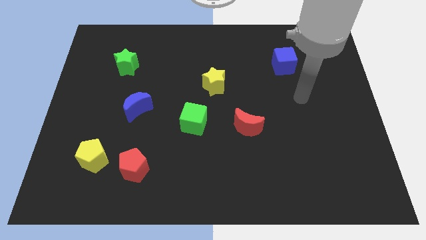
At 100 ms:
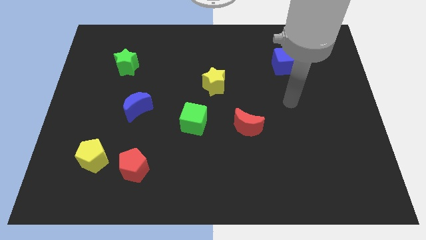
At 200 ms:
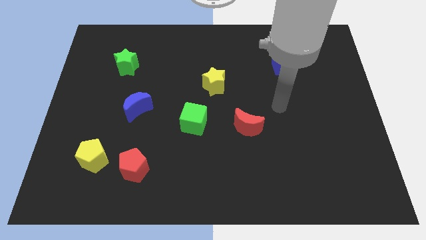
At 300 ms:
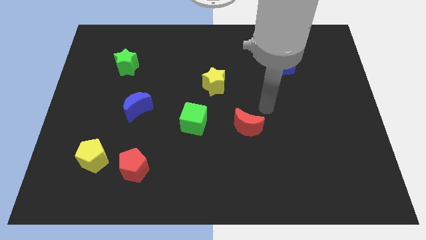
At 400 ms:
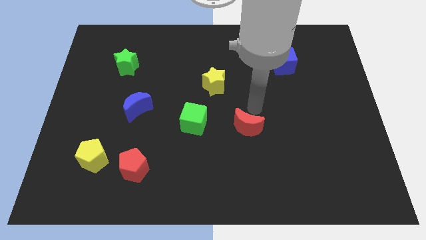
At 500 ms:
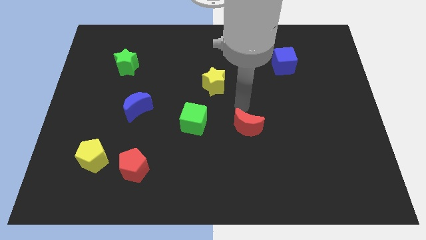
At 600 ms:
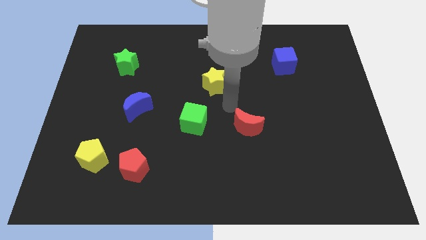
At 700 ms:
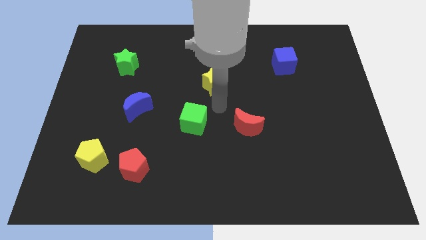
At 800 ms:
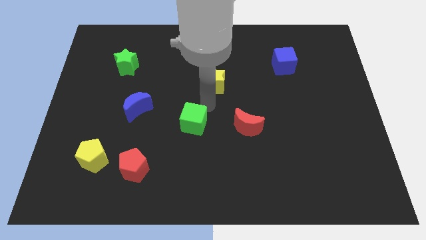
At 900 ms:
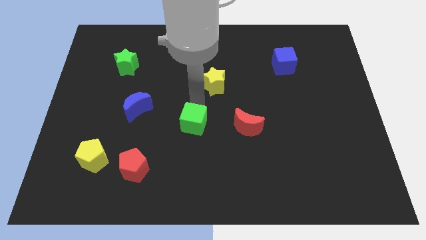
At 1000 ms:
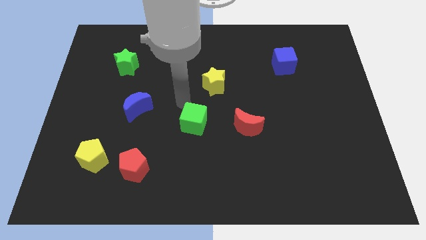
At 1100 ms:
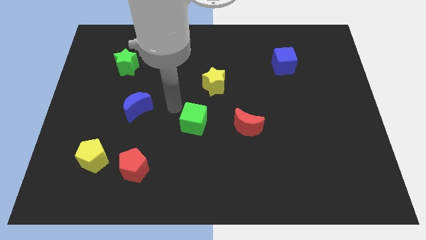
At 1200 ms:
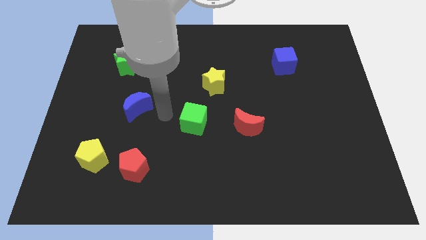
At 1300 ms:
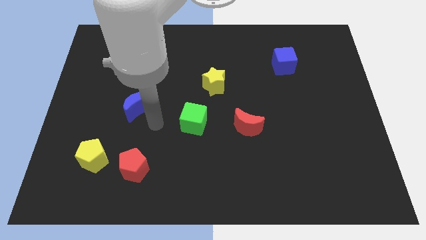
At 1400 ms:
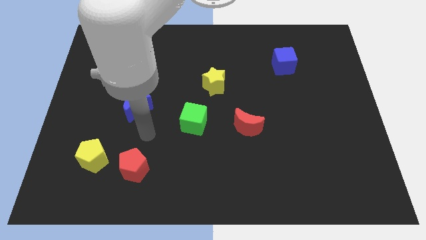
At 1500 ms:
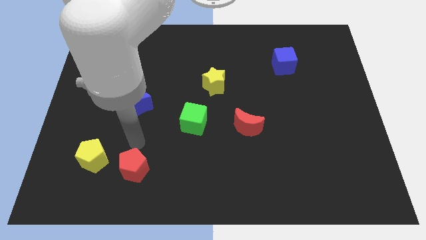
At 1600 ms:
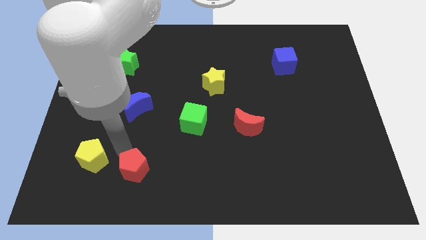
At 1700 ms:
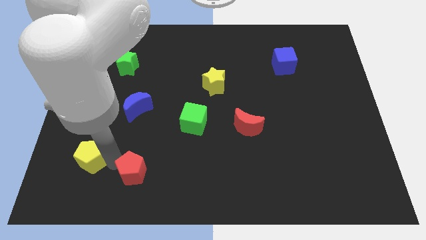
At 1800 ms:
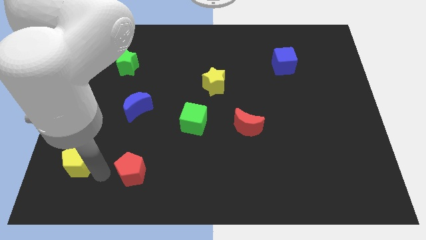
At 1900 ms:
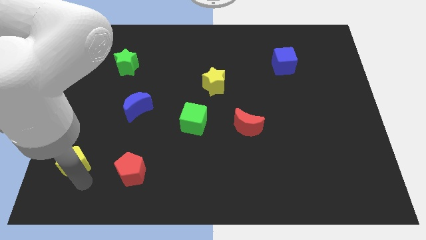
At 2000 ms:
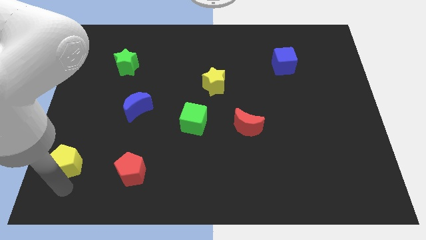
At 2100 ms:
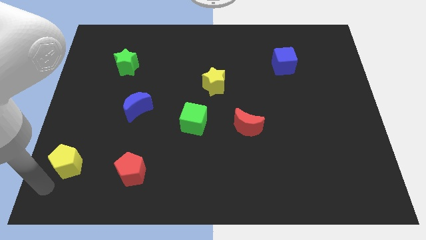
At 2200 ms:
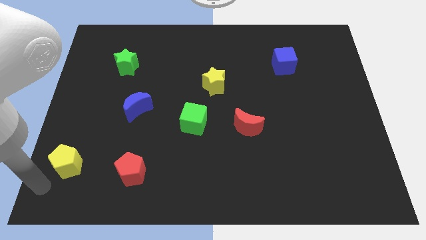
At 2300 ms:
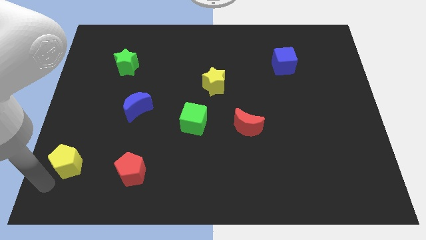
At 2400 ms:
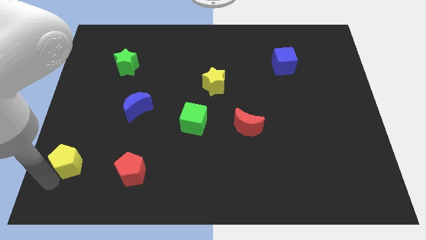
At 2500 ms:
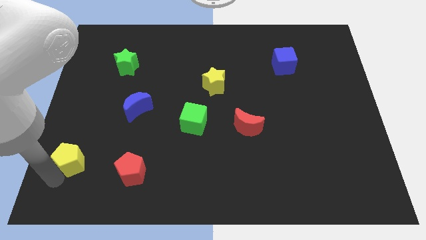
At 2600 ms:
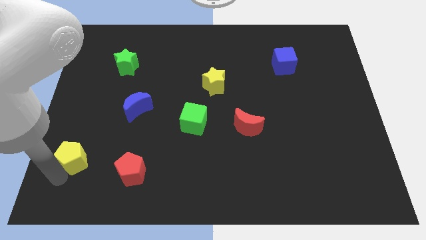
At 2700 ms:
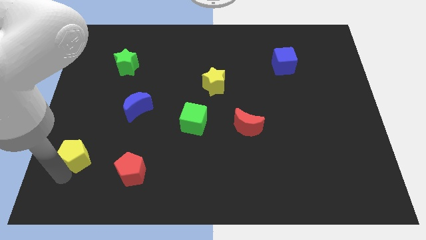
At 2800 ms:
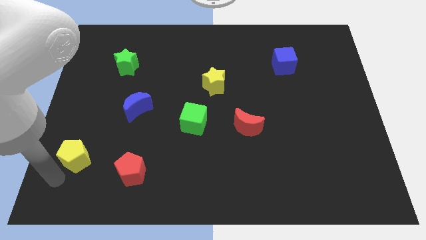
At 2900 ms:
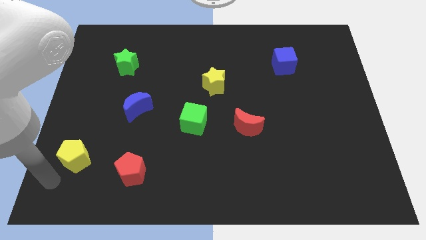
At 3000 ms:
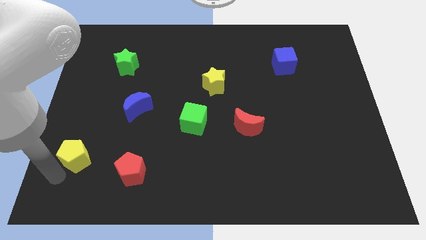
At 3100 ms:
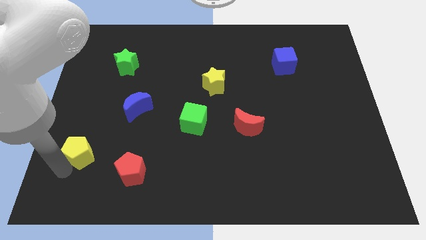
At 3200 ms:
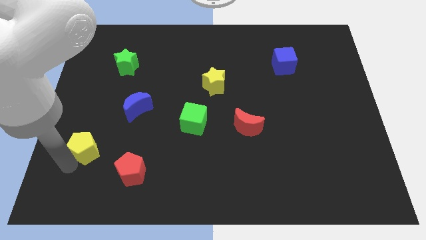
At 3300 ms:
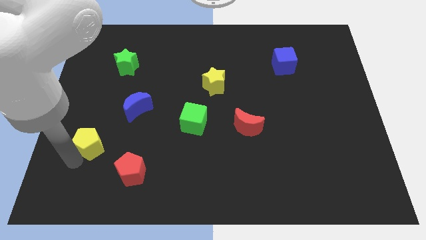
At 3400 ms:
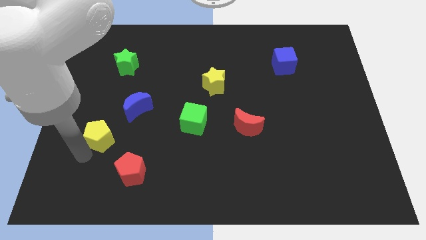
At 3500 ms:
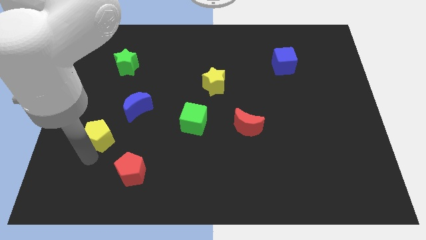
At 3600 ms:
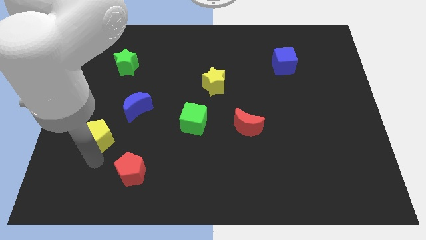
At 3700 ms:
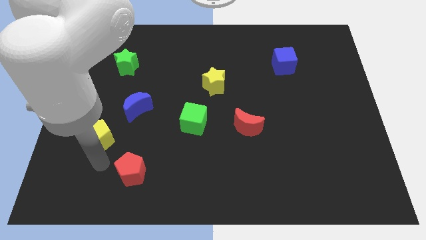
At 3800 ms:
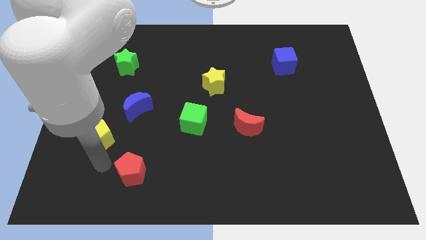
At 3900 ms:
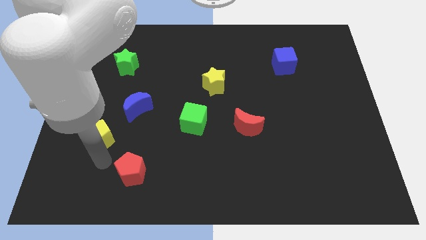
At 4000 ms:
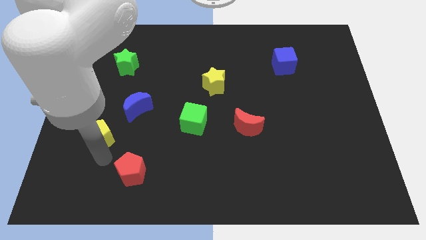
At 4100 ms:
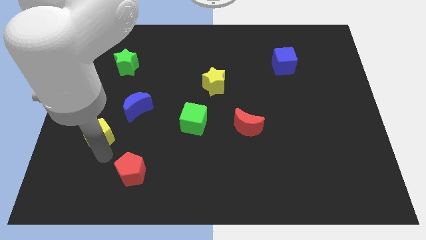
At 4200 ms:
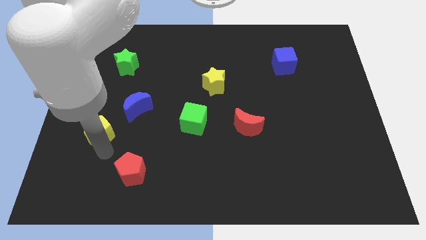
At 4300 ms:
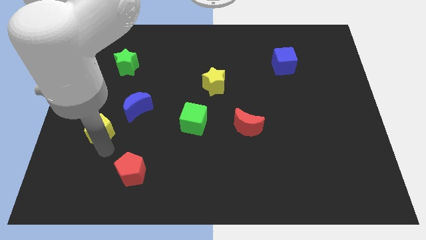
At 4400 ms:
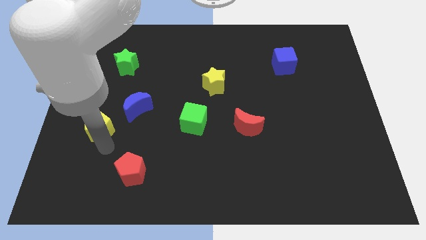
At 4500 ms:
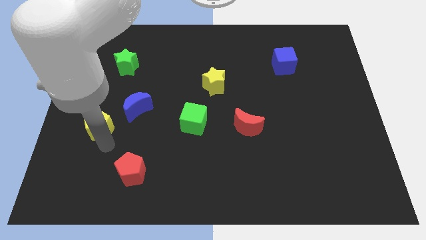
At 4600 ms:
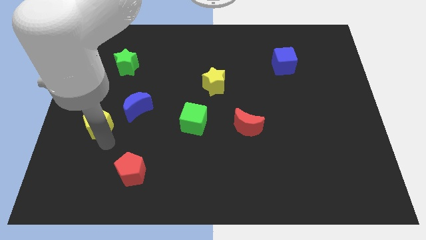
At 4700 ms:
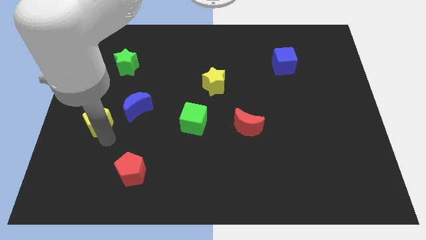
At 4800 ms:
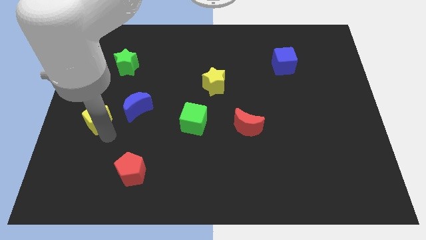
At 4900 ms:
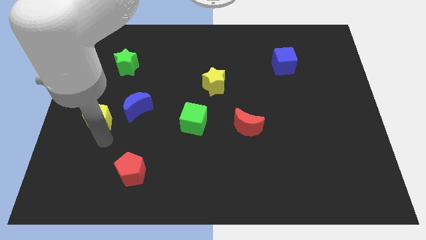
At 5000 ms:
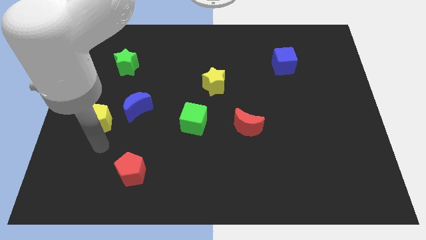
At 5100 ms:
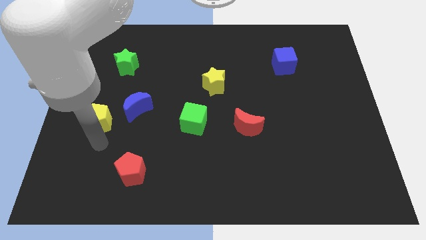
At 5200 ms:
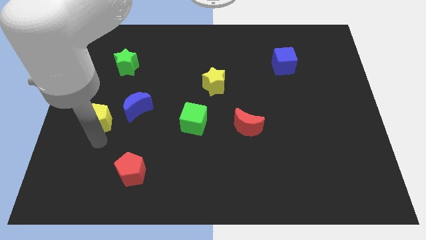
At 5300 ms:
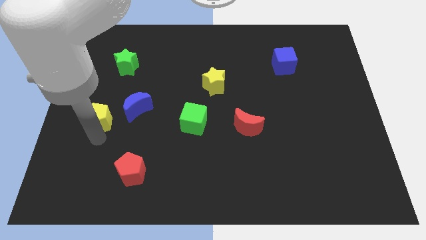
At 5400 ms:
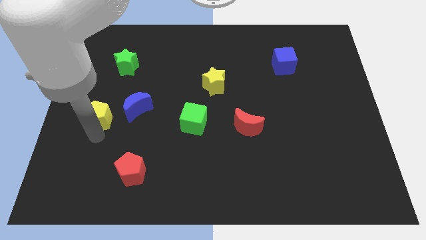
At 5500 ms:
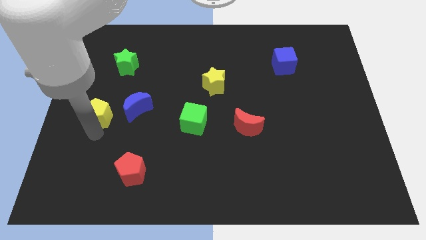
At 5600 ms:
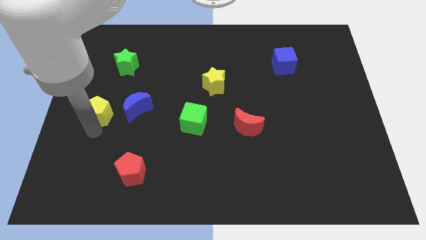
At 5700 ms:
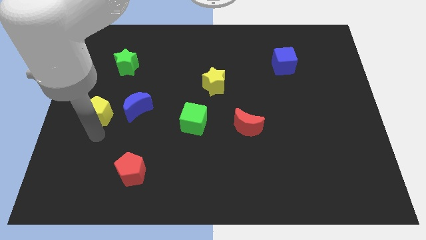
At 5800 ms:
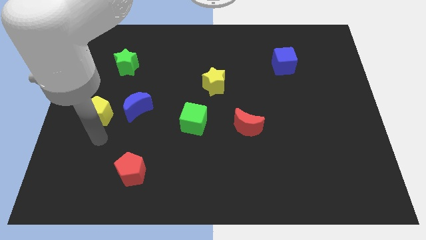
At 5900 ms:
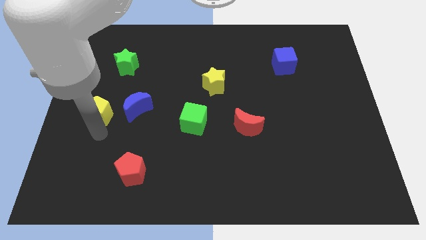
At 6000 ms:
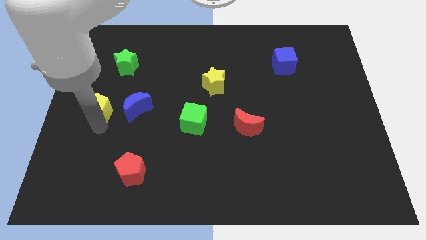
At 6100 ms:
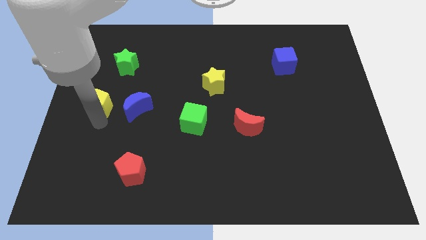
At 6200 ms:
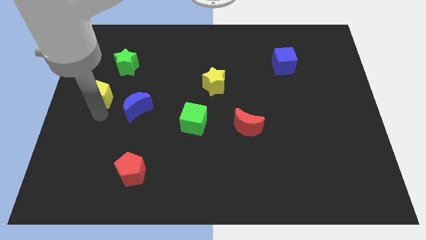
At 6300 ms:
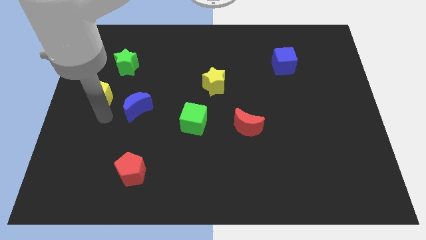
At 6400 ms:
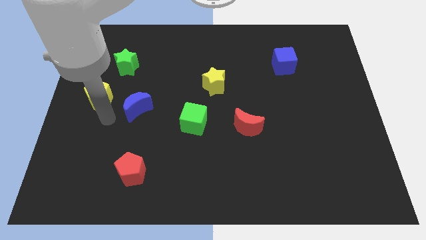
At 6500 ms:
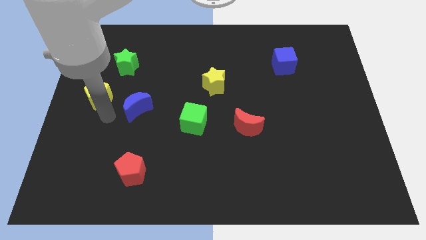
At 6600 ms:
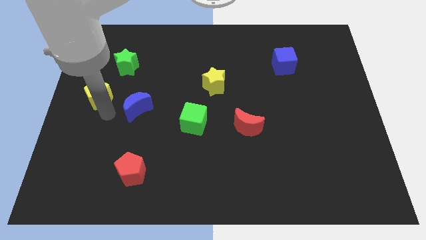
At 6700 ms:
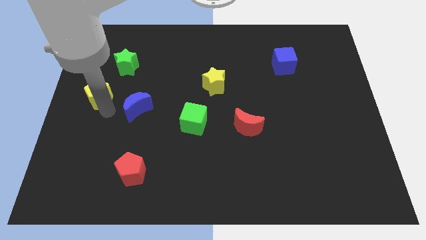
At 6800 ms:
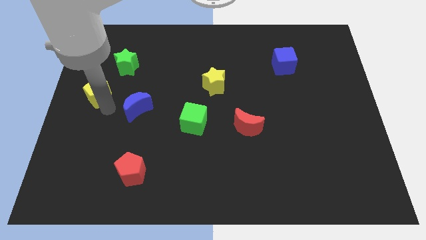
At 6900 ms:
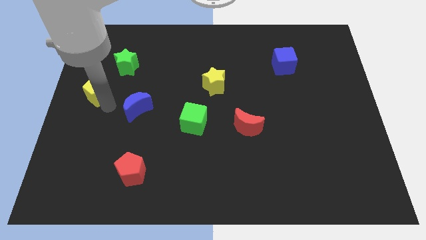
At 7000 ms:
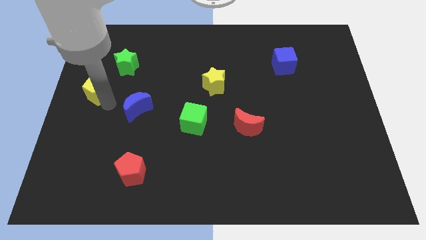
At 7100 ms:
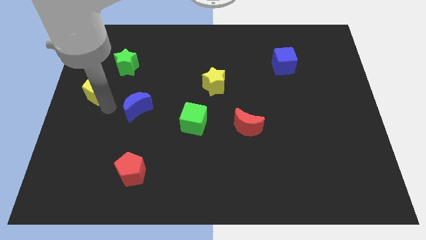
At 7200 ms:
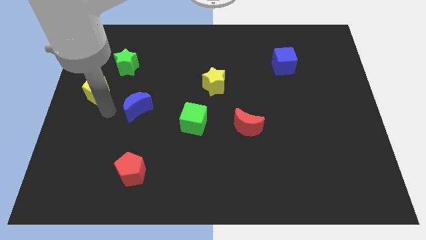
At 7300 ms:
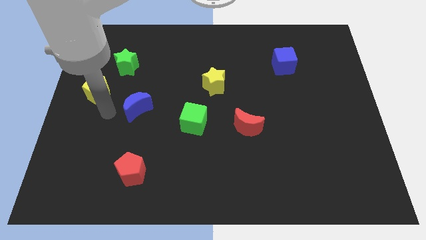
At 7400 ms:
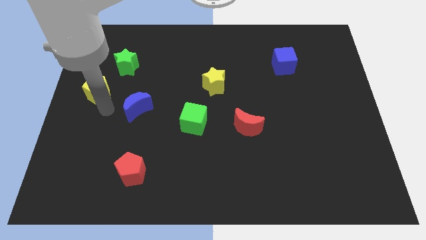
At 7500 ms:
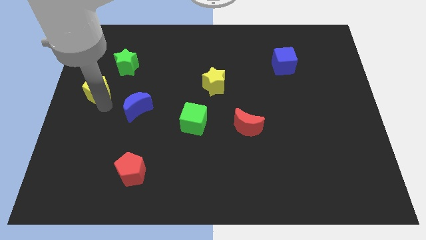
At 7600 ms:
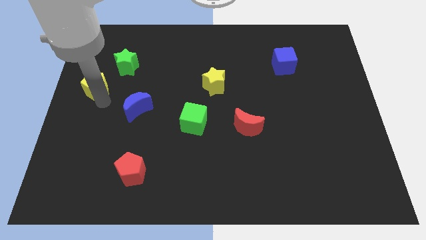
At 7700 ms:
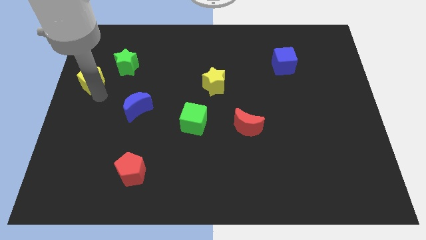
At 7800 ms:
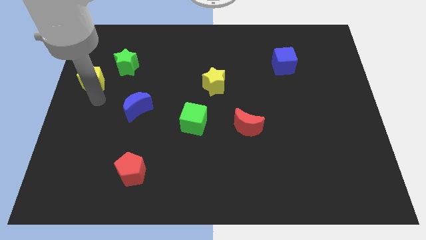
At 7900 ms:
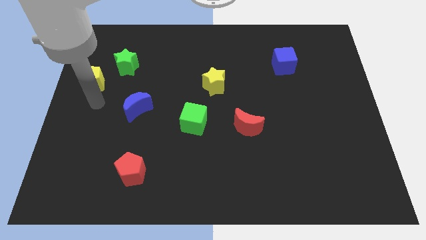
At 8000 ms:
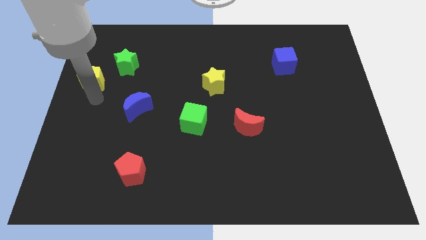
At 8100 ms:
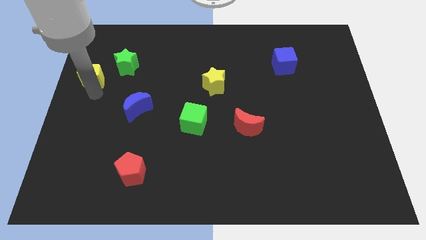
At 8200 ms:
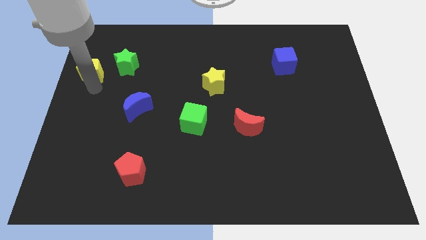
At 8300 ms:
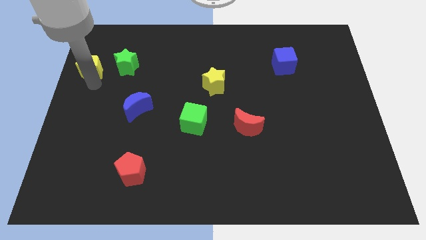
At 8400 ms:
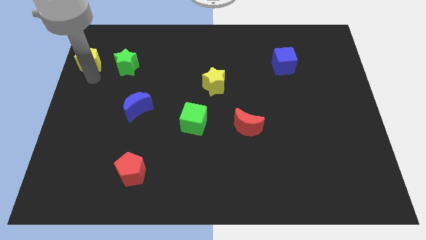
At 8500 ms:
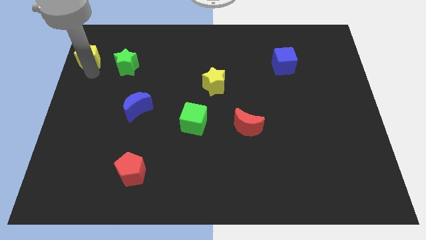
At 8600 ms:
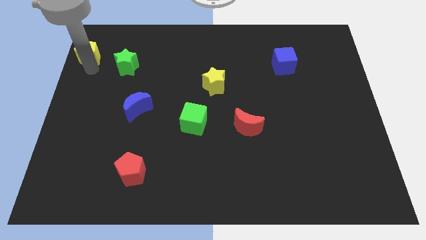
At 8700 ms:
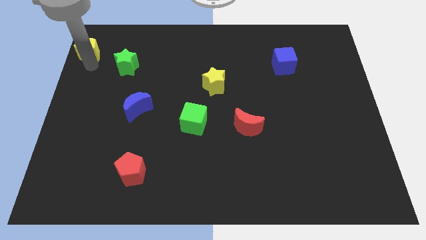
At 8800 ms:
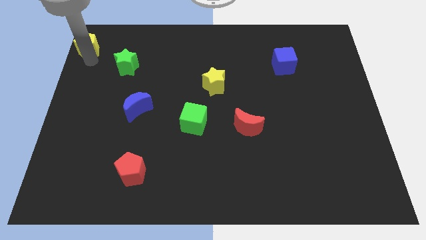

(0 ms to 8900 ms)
push the yellow pentagon to the top left corner
